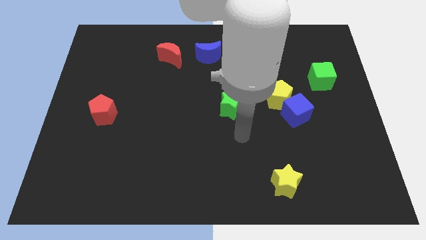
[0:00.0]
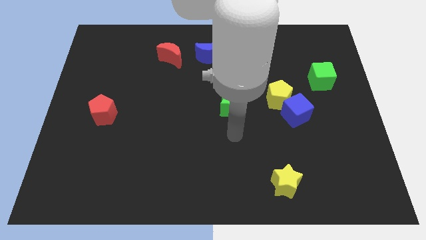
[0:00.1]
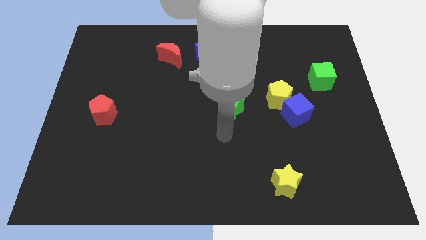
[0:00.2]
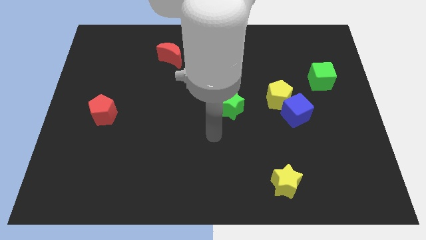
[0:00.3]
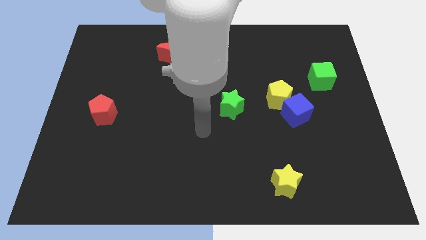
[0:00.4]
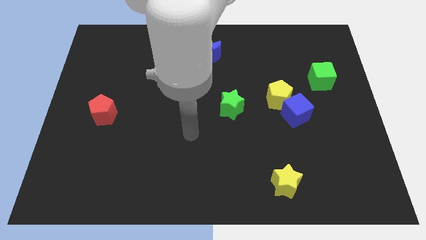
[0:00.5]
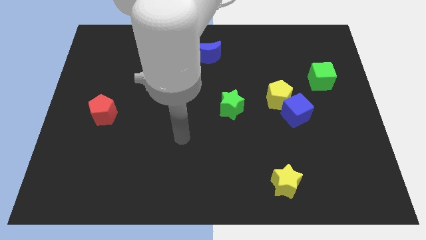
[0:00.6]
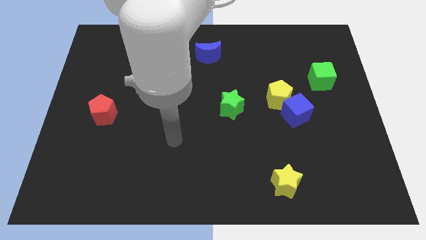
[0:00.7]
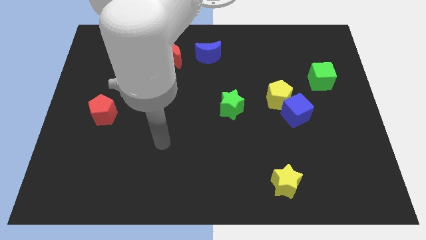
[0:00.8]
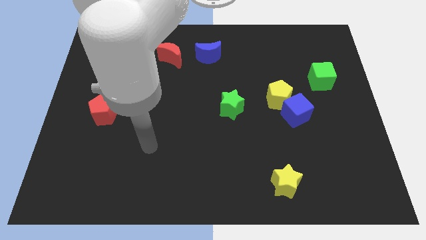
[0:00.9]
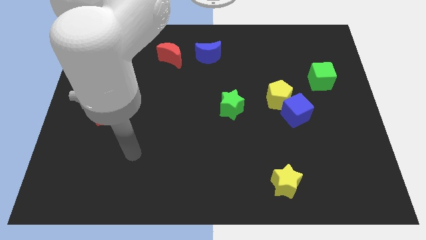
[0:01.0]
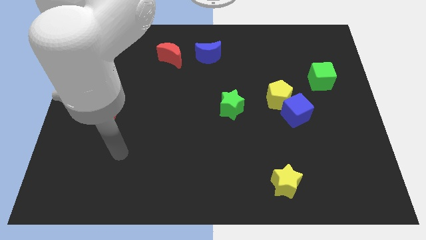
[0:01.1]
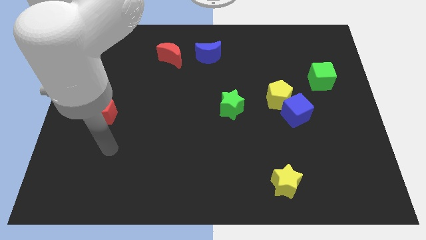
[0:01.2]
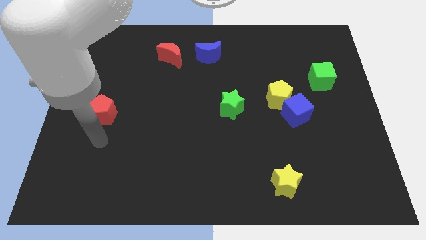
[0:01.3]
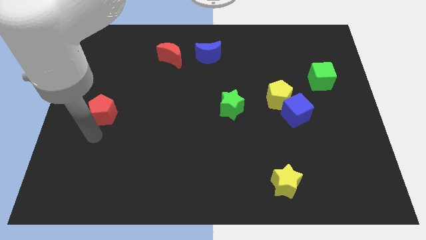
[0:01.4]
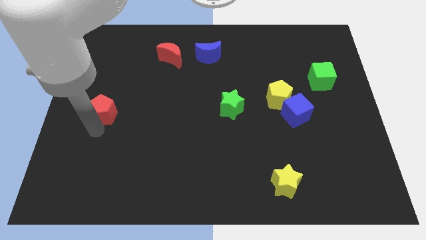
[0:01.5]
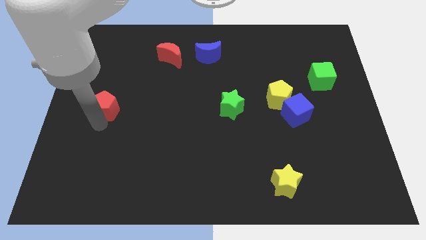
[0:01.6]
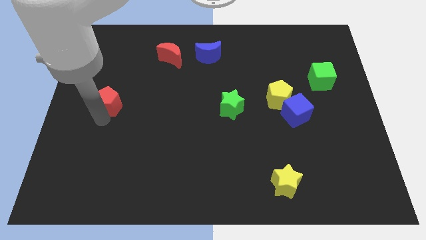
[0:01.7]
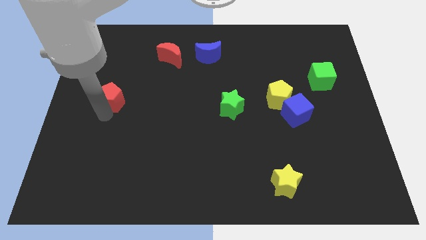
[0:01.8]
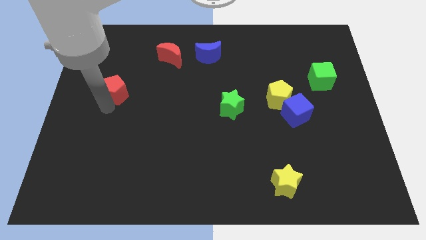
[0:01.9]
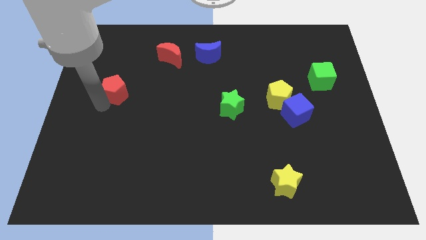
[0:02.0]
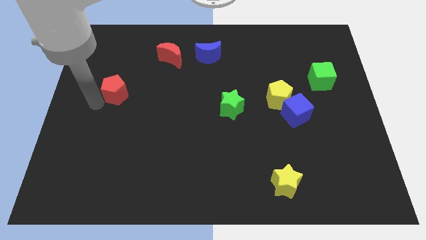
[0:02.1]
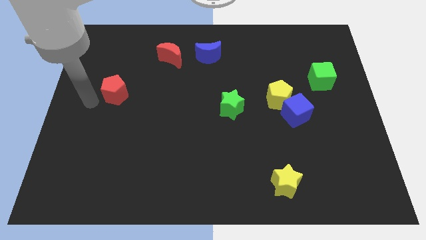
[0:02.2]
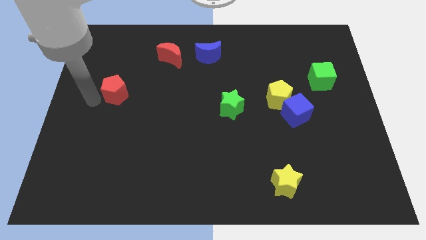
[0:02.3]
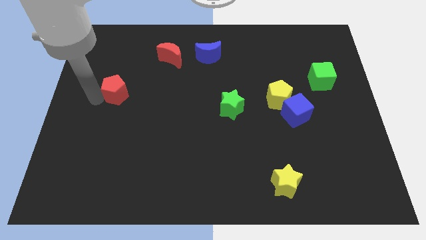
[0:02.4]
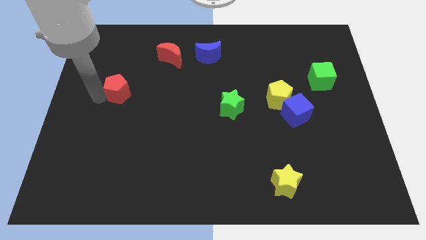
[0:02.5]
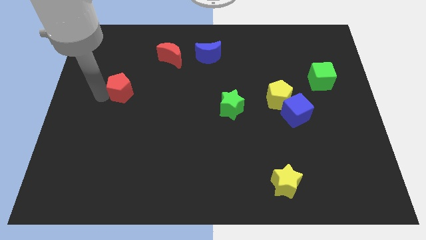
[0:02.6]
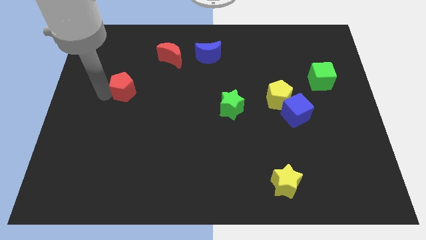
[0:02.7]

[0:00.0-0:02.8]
slightly slide the red pentagon diagonally up and to the right

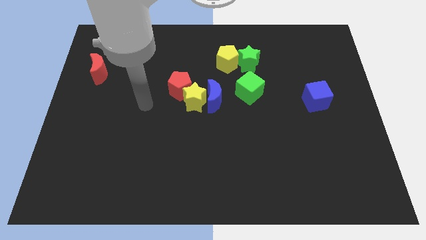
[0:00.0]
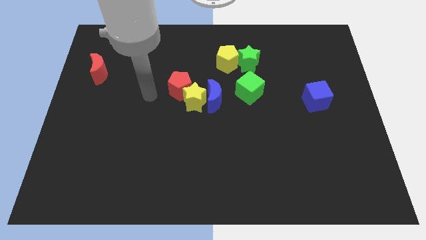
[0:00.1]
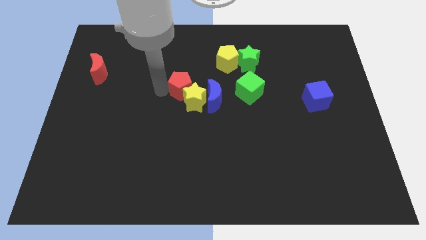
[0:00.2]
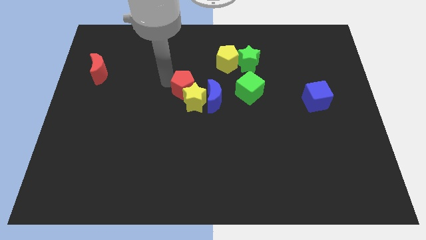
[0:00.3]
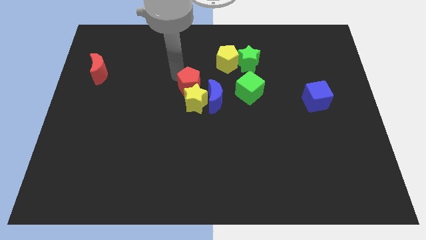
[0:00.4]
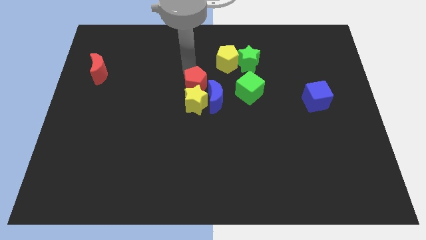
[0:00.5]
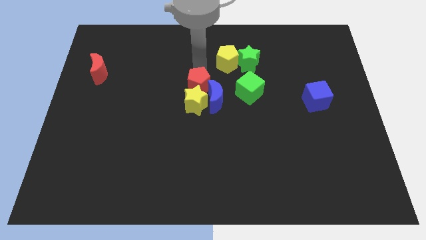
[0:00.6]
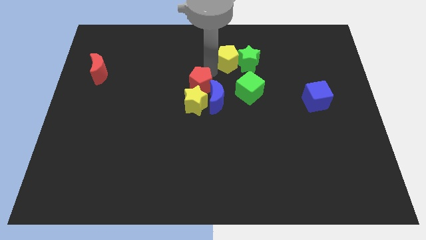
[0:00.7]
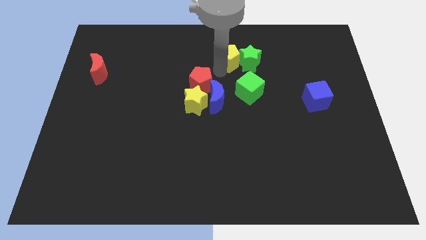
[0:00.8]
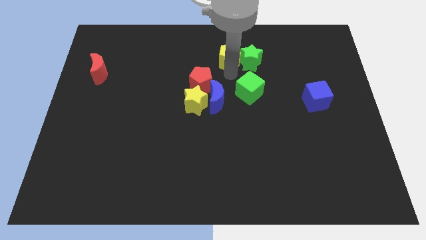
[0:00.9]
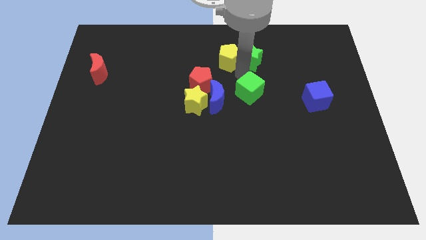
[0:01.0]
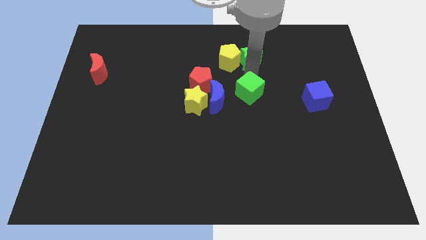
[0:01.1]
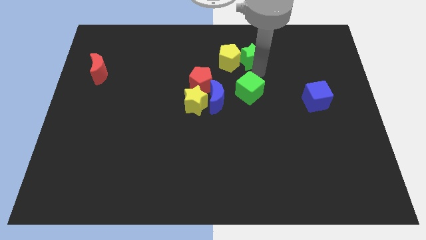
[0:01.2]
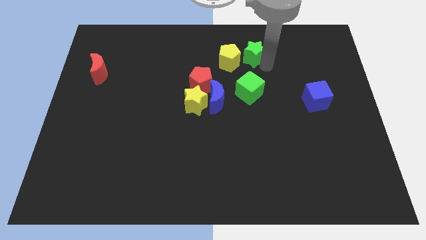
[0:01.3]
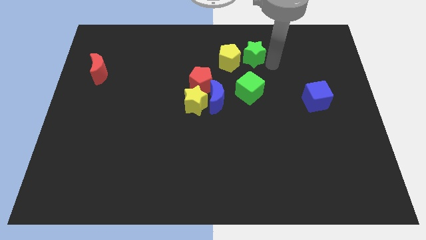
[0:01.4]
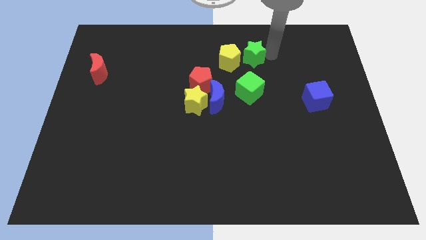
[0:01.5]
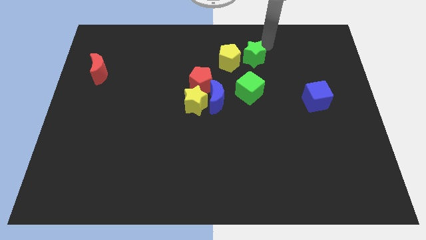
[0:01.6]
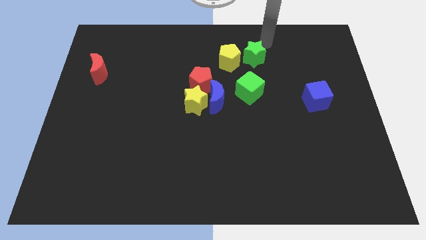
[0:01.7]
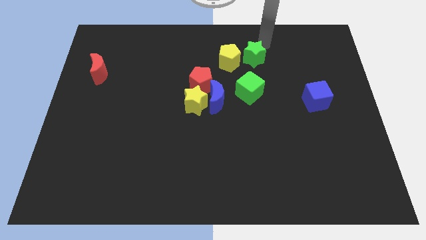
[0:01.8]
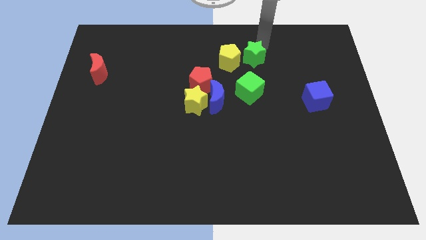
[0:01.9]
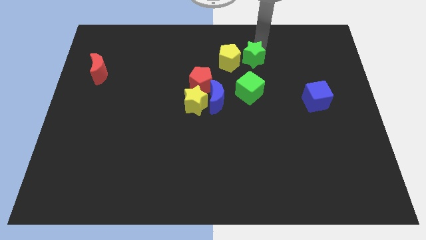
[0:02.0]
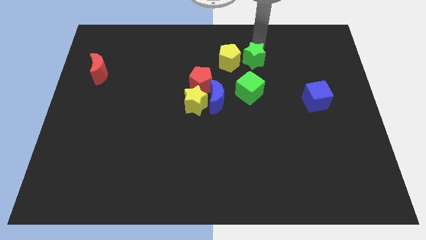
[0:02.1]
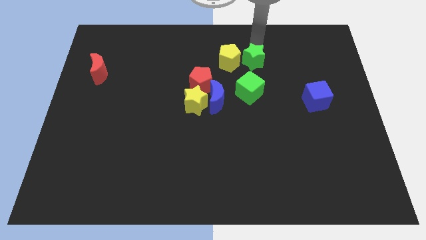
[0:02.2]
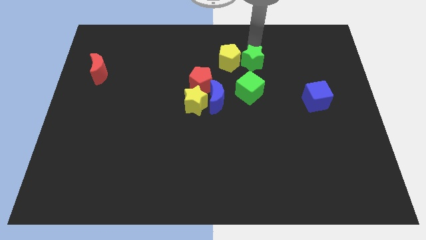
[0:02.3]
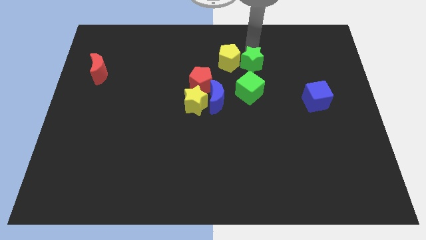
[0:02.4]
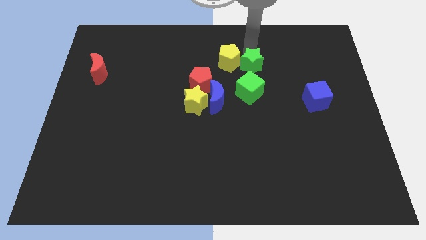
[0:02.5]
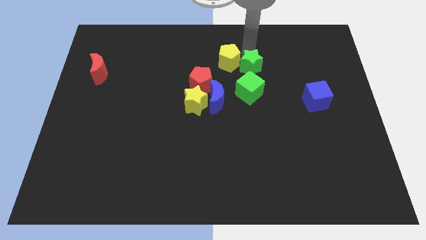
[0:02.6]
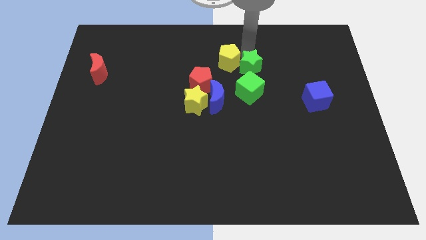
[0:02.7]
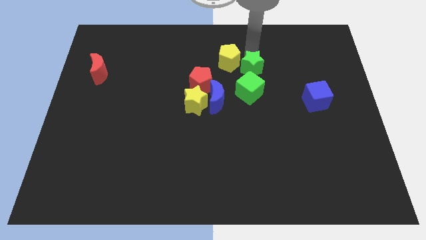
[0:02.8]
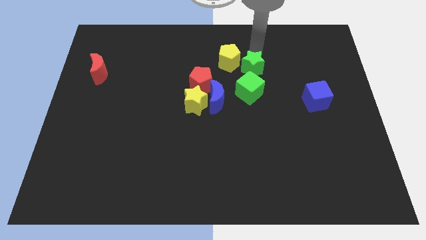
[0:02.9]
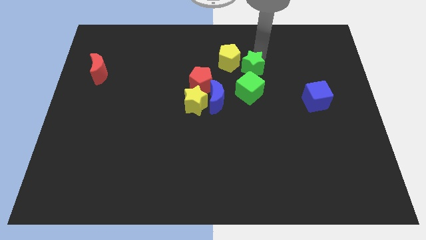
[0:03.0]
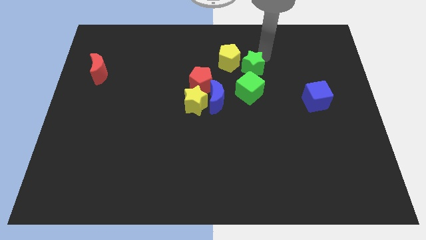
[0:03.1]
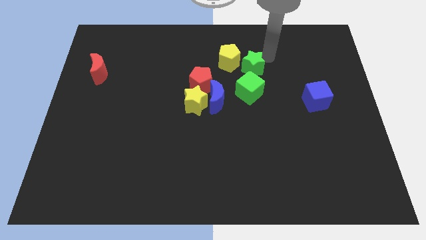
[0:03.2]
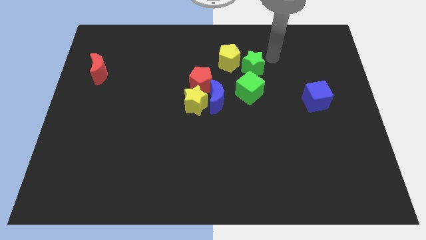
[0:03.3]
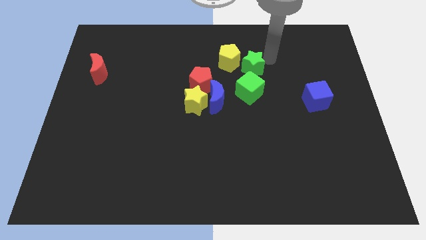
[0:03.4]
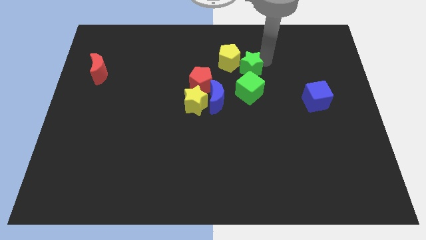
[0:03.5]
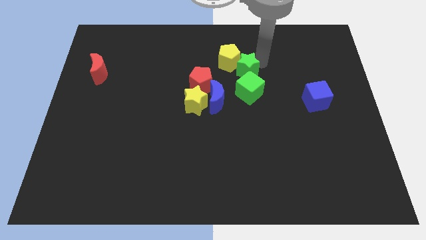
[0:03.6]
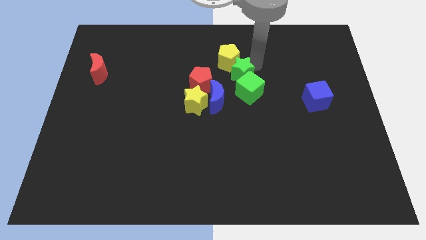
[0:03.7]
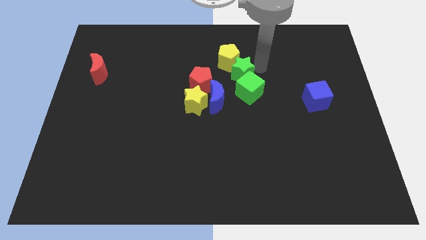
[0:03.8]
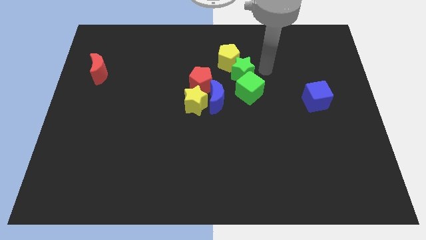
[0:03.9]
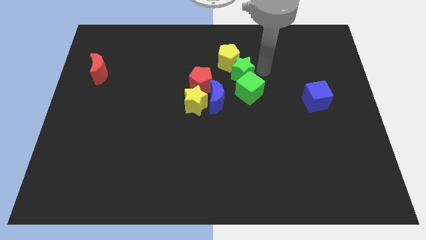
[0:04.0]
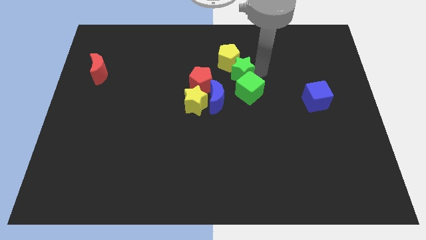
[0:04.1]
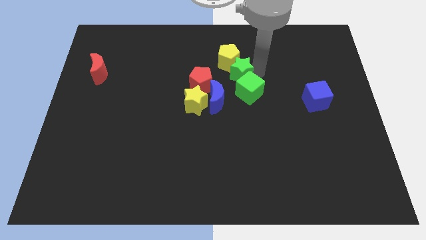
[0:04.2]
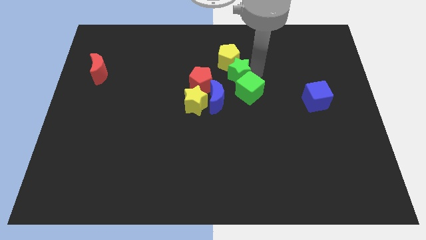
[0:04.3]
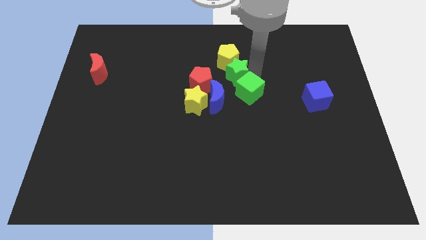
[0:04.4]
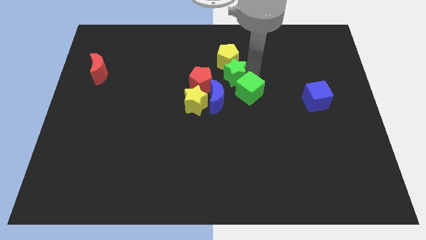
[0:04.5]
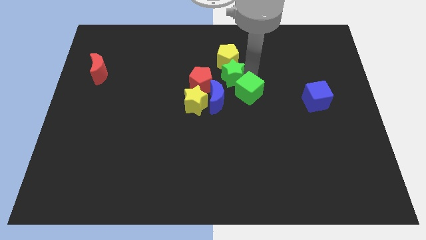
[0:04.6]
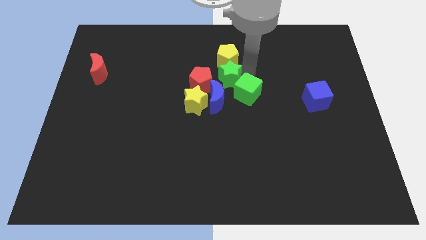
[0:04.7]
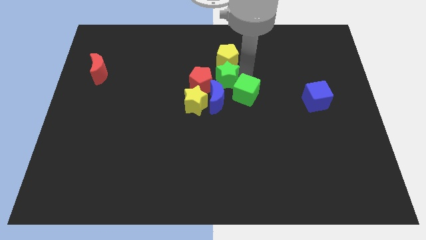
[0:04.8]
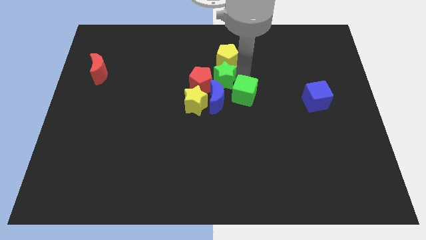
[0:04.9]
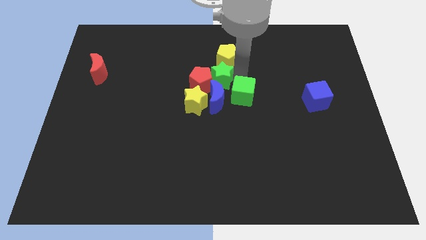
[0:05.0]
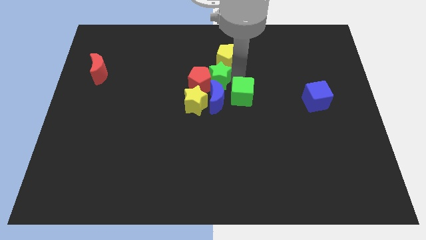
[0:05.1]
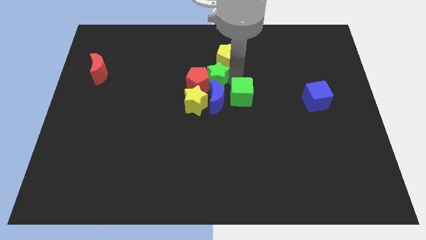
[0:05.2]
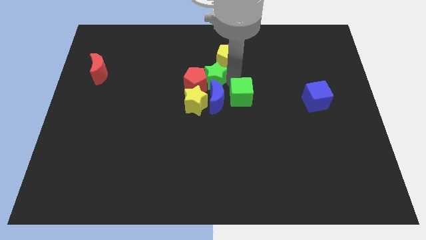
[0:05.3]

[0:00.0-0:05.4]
slightly move the green star to the left
